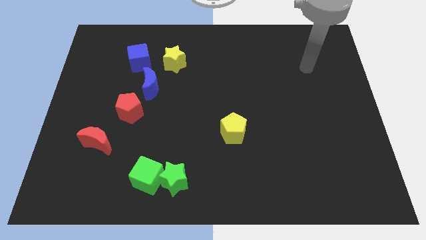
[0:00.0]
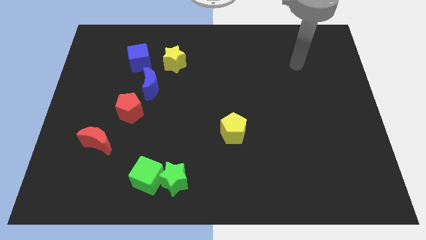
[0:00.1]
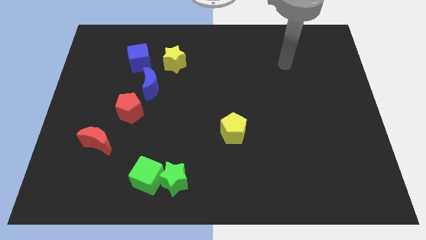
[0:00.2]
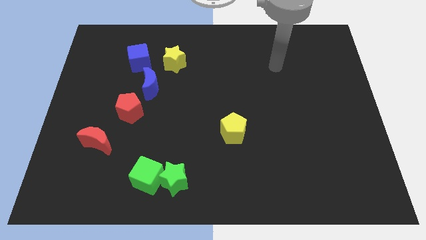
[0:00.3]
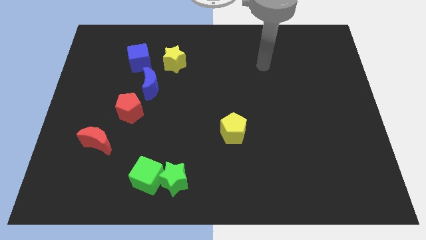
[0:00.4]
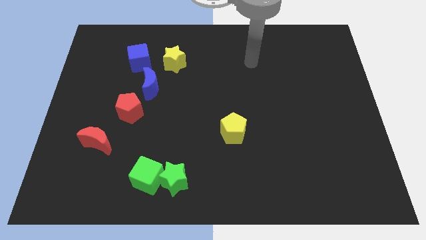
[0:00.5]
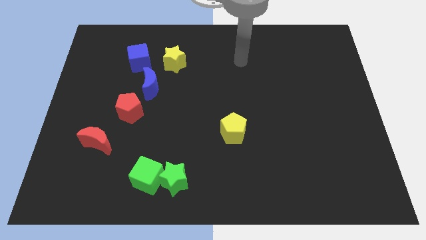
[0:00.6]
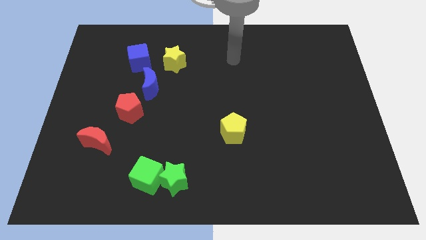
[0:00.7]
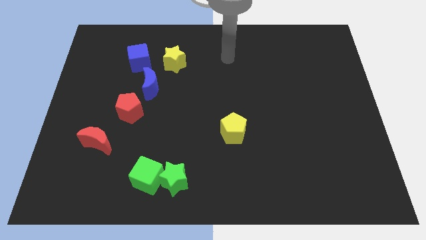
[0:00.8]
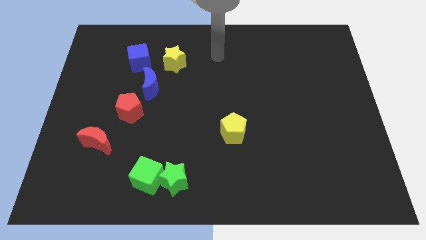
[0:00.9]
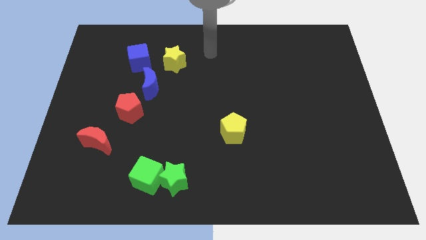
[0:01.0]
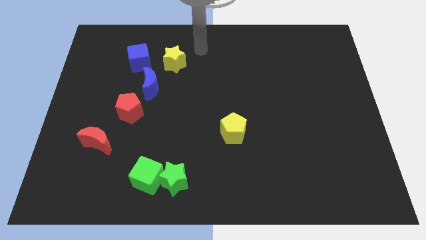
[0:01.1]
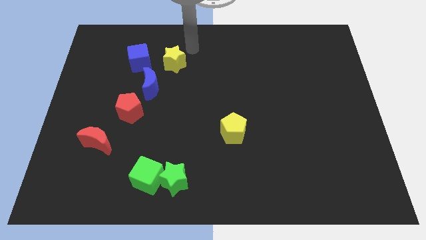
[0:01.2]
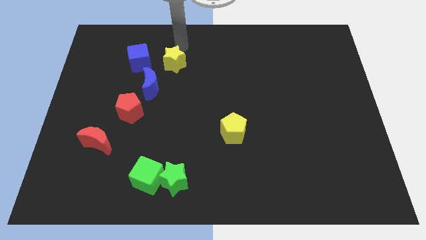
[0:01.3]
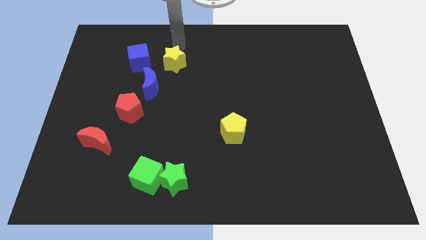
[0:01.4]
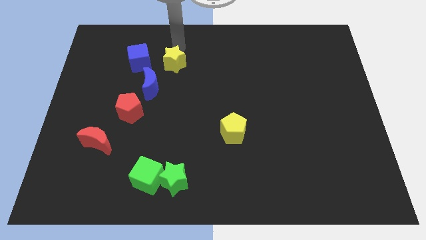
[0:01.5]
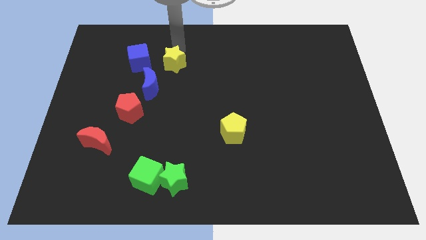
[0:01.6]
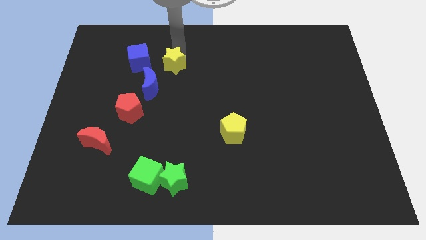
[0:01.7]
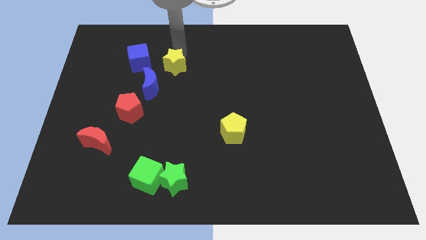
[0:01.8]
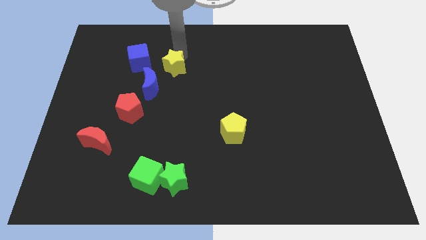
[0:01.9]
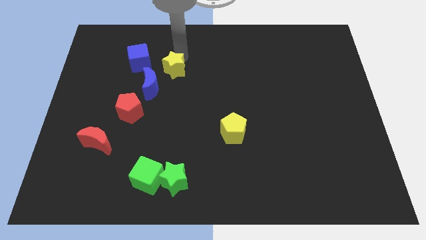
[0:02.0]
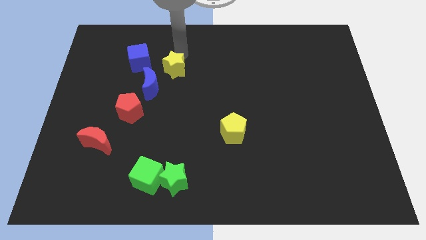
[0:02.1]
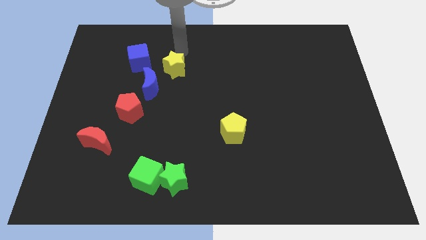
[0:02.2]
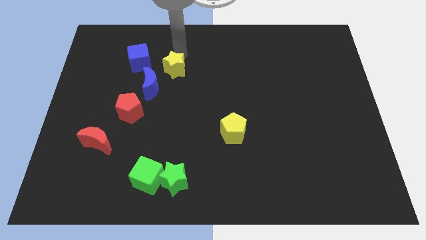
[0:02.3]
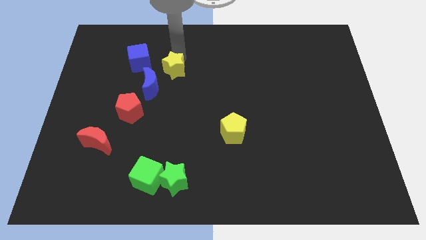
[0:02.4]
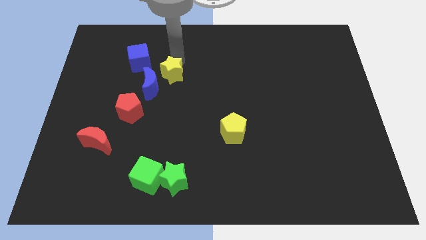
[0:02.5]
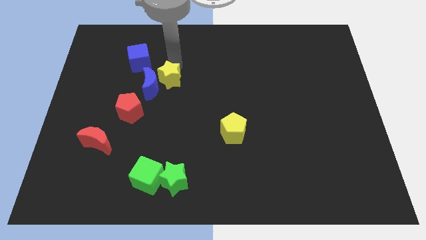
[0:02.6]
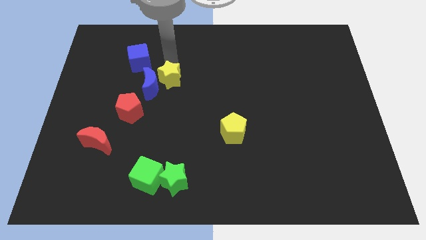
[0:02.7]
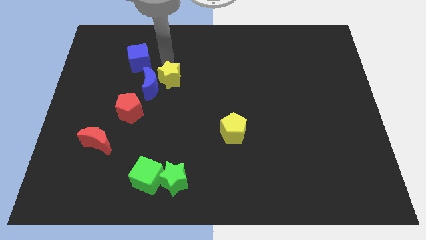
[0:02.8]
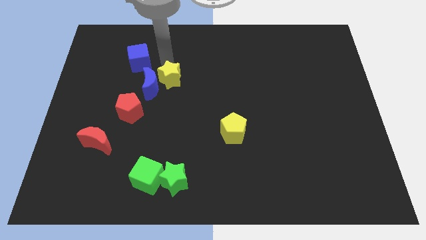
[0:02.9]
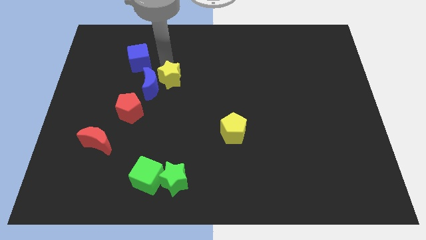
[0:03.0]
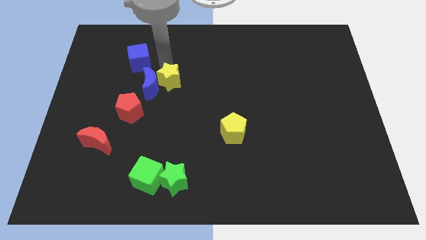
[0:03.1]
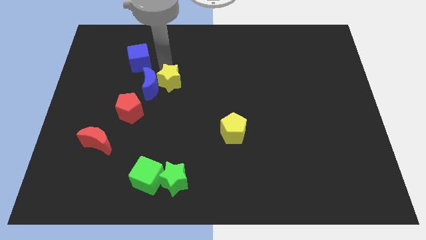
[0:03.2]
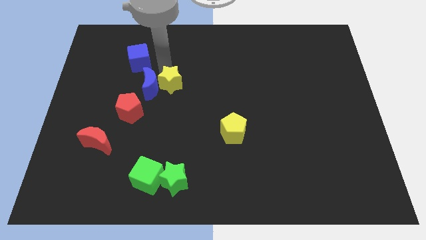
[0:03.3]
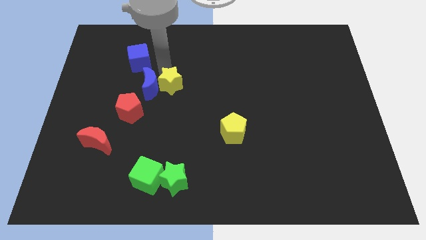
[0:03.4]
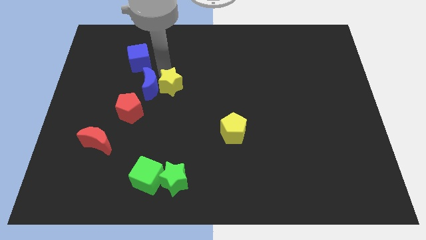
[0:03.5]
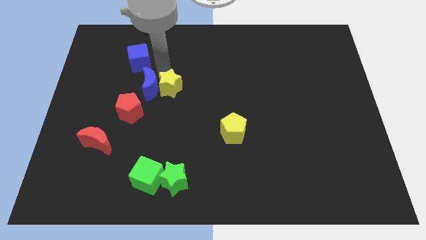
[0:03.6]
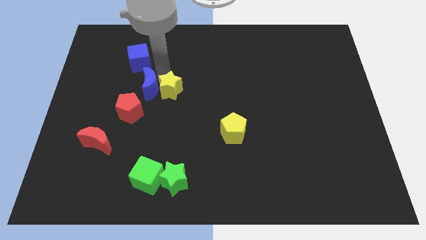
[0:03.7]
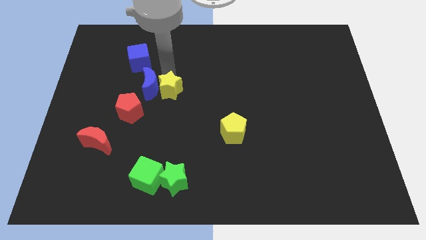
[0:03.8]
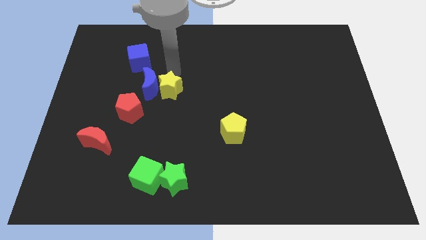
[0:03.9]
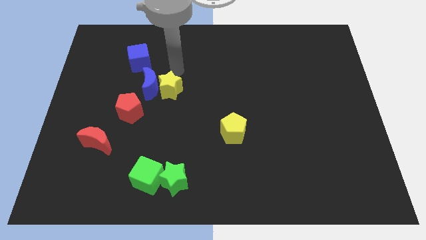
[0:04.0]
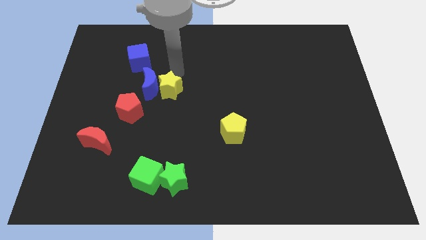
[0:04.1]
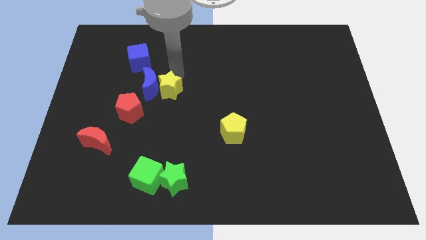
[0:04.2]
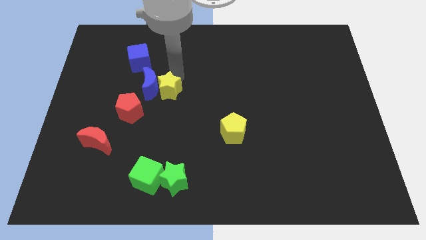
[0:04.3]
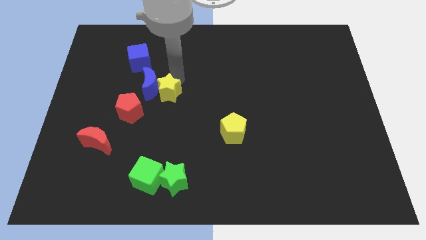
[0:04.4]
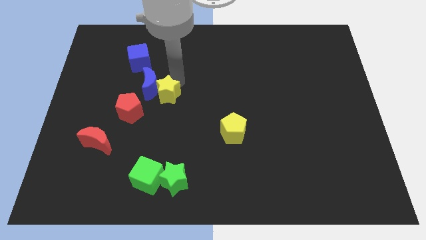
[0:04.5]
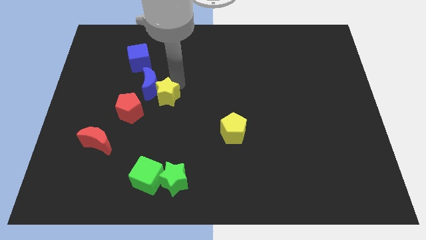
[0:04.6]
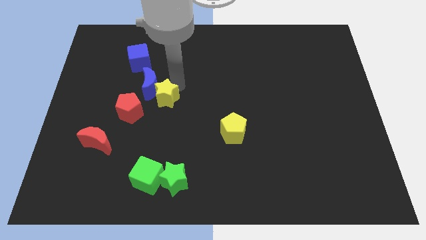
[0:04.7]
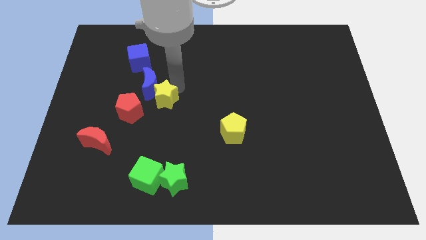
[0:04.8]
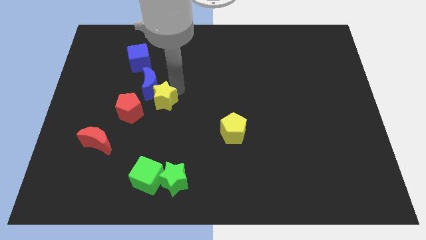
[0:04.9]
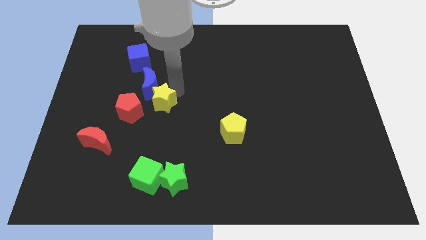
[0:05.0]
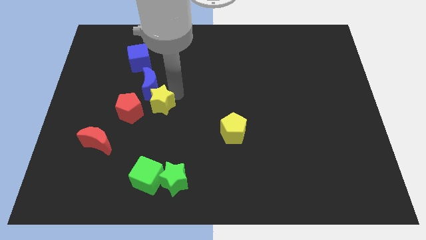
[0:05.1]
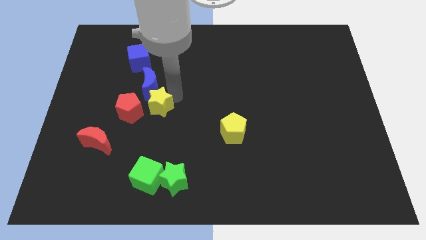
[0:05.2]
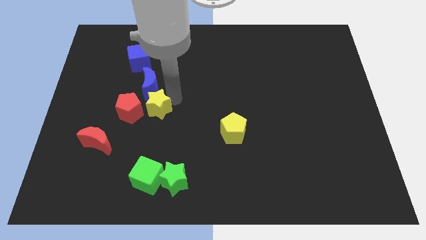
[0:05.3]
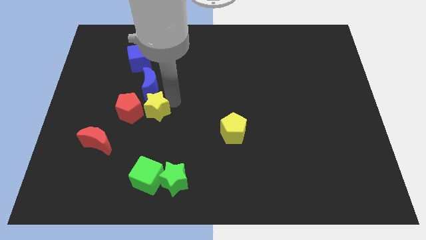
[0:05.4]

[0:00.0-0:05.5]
move the yellow star to the bottom right side of the red pentagon

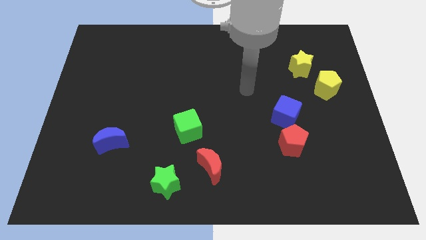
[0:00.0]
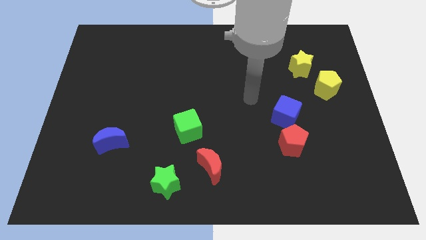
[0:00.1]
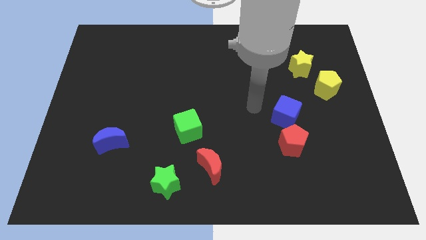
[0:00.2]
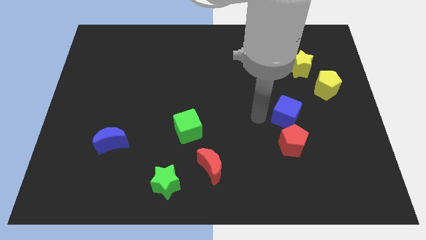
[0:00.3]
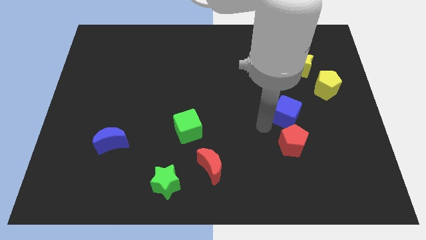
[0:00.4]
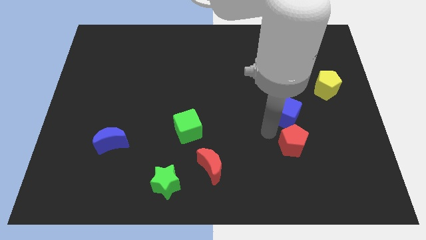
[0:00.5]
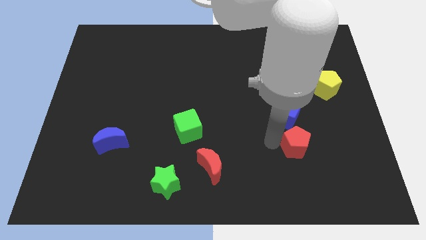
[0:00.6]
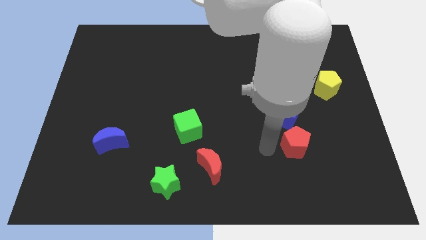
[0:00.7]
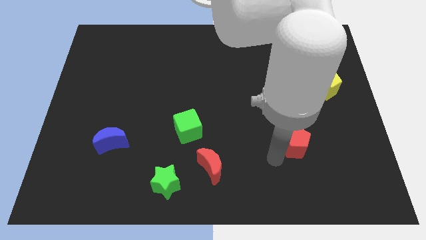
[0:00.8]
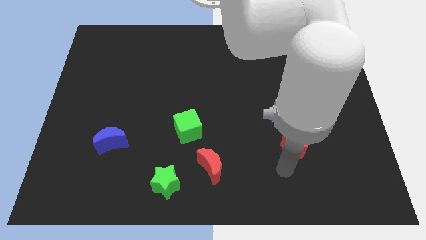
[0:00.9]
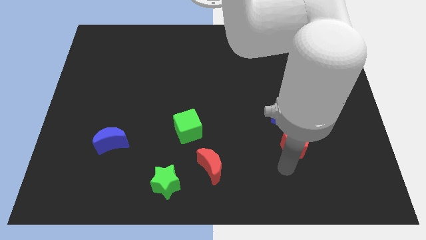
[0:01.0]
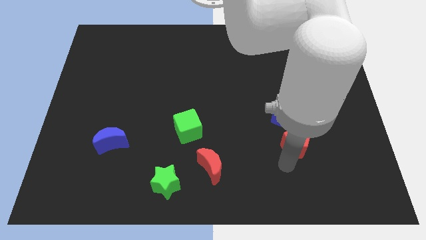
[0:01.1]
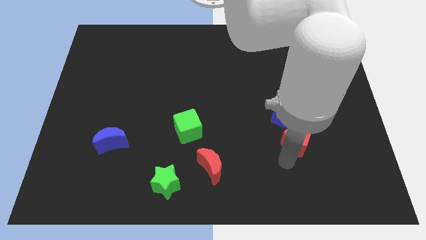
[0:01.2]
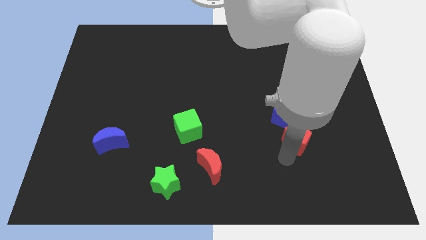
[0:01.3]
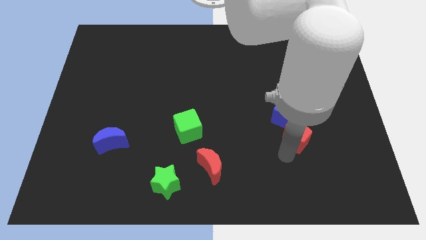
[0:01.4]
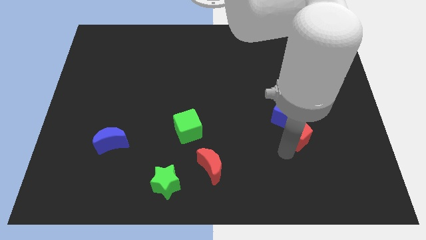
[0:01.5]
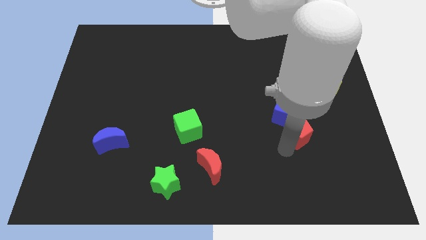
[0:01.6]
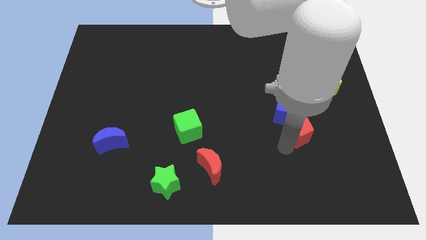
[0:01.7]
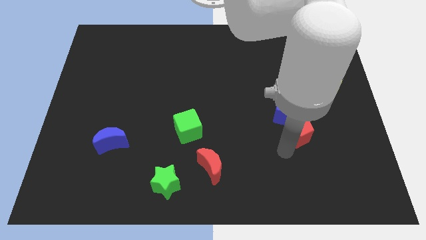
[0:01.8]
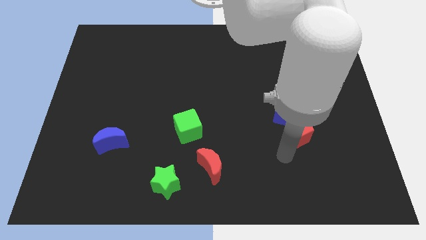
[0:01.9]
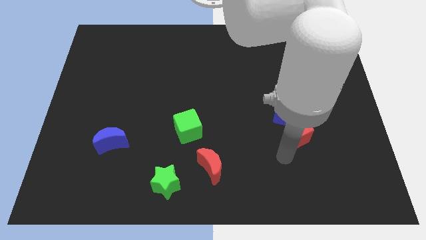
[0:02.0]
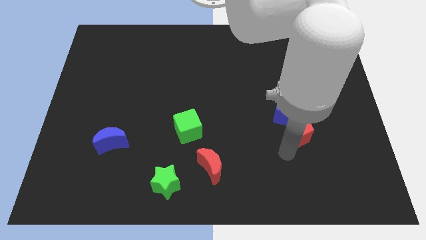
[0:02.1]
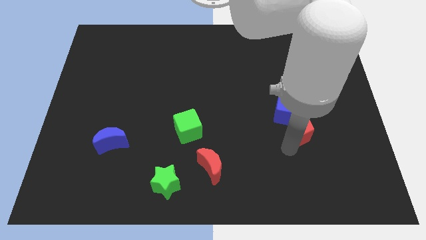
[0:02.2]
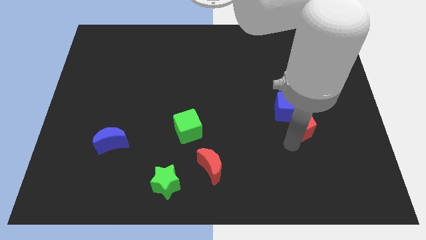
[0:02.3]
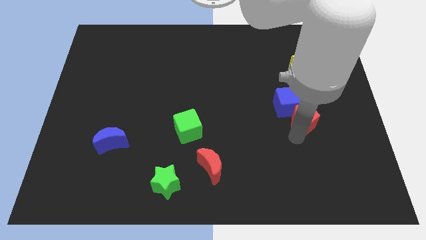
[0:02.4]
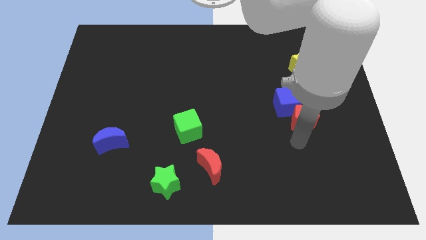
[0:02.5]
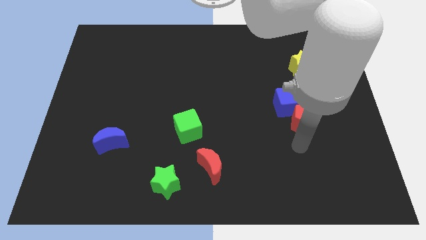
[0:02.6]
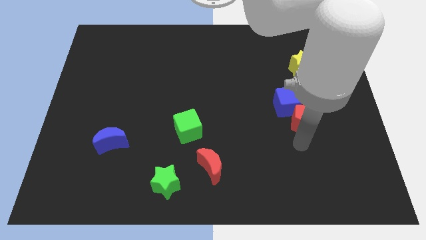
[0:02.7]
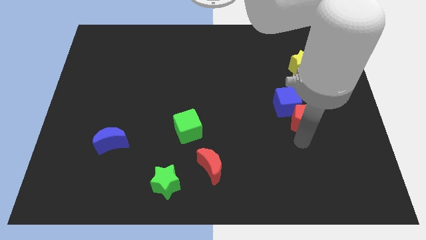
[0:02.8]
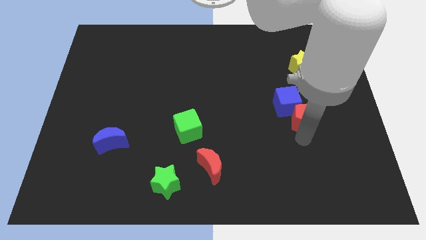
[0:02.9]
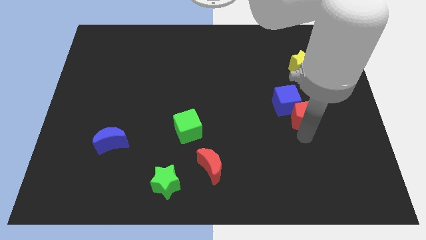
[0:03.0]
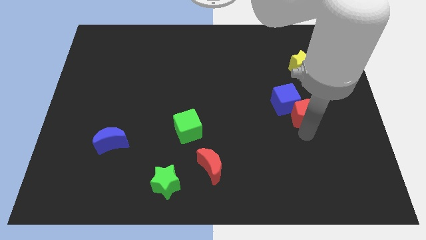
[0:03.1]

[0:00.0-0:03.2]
slide the red pentagon to the bottom side of the yellow star
